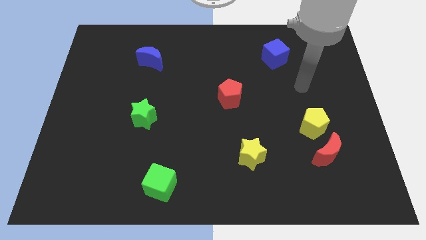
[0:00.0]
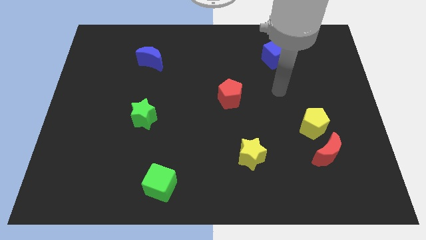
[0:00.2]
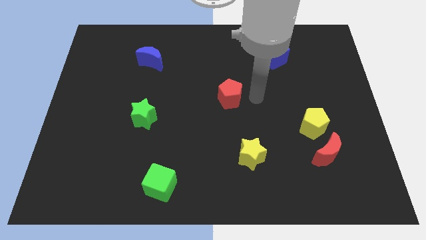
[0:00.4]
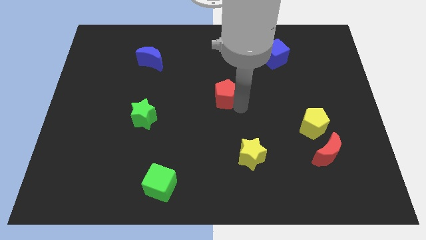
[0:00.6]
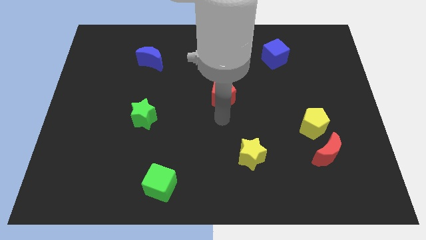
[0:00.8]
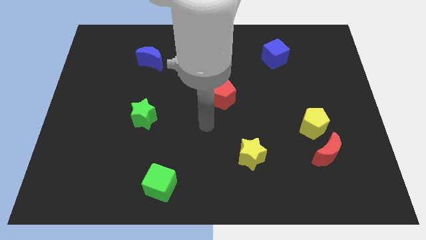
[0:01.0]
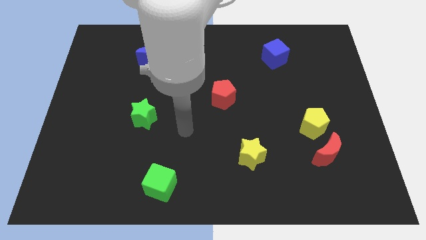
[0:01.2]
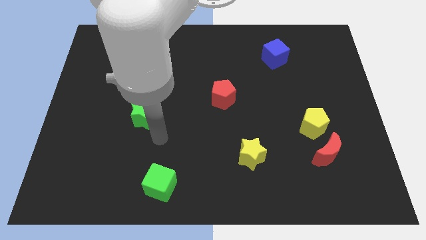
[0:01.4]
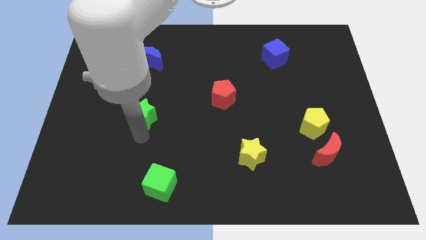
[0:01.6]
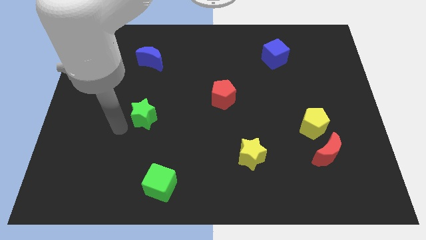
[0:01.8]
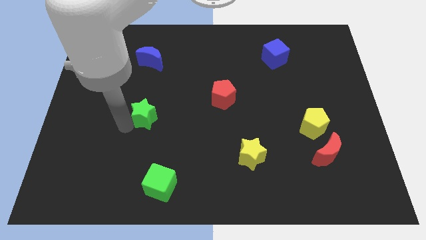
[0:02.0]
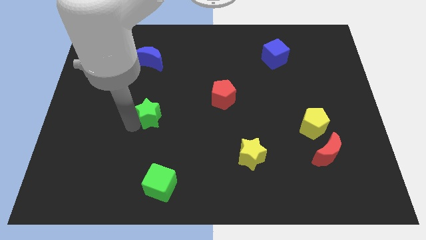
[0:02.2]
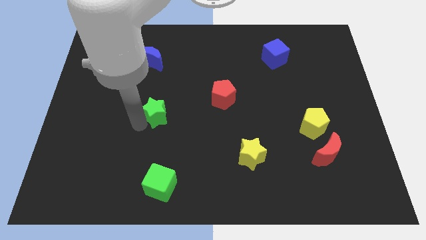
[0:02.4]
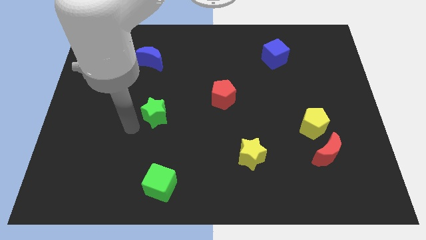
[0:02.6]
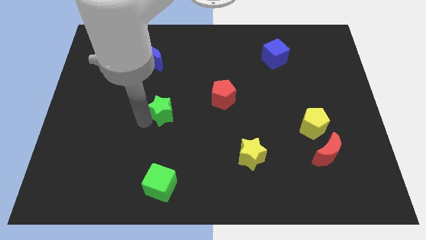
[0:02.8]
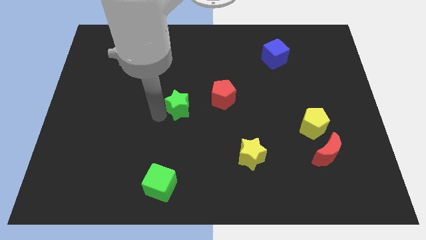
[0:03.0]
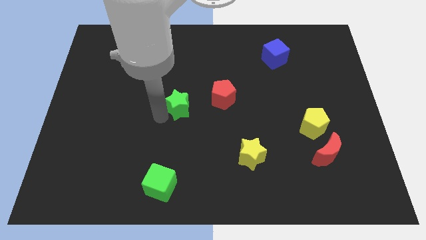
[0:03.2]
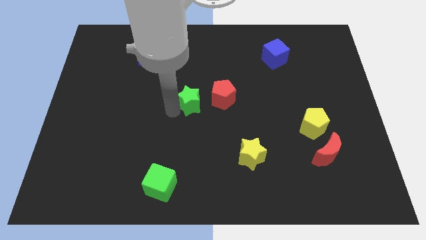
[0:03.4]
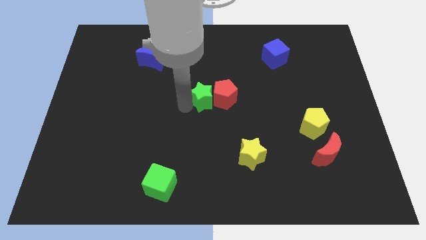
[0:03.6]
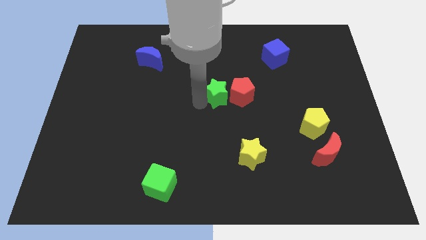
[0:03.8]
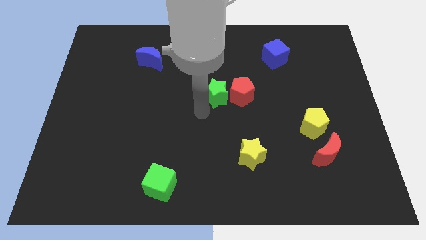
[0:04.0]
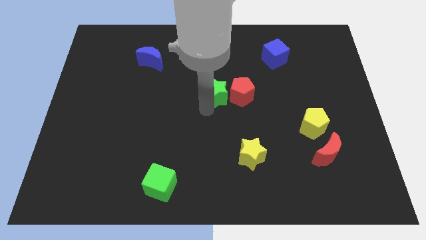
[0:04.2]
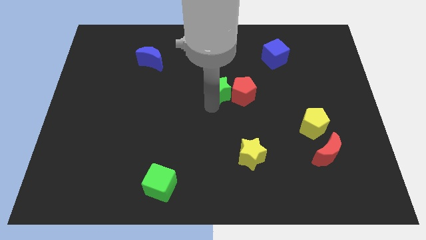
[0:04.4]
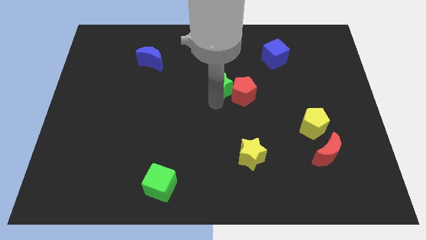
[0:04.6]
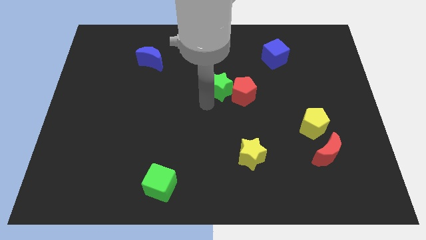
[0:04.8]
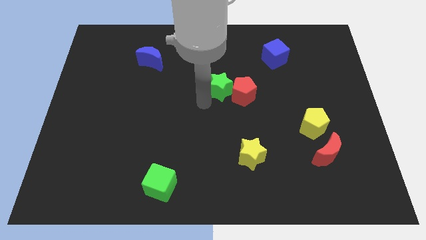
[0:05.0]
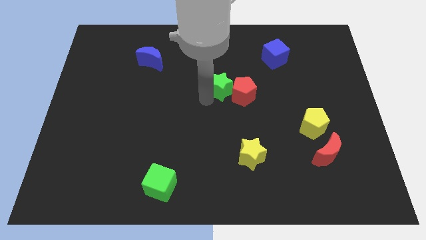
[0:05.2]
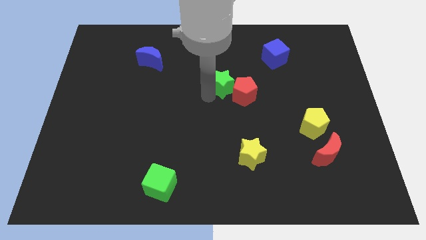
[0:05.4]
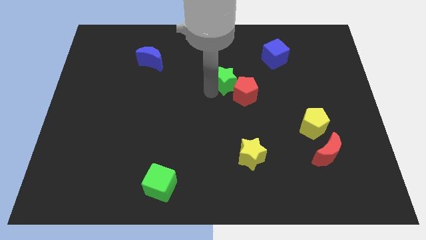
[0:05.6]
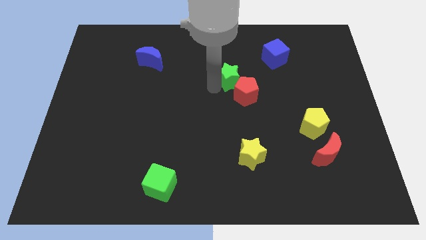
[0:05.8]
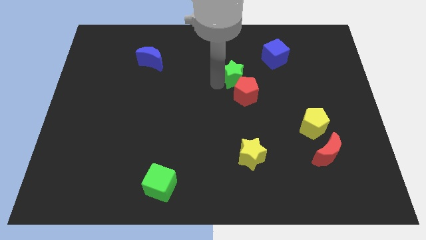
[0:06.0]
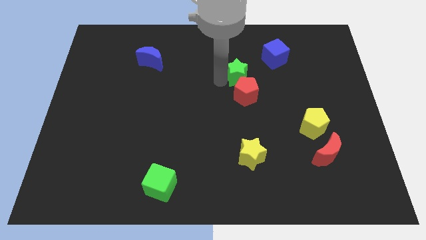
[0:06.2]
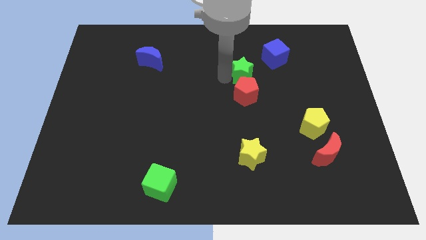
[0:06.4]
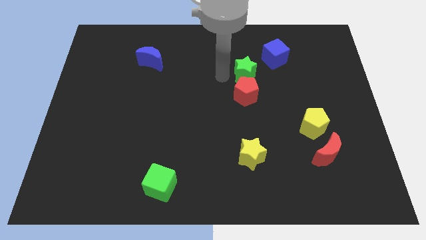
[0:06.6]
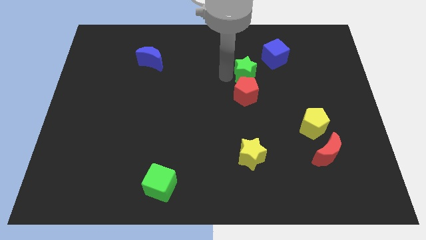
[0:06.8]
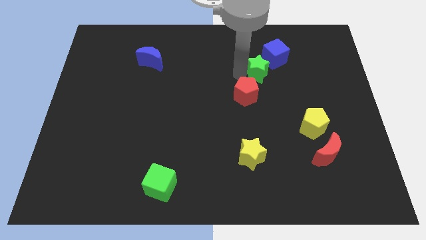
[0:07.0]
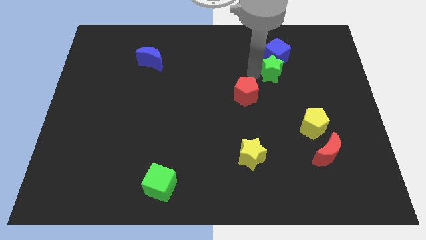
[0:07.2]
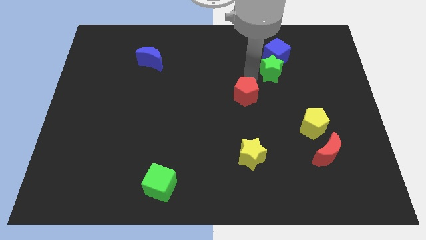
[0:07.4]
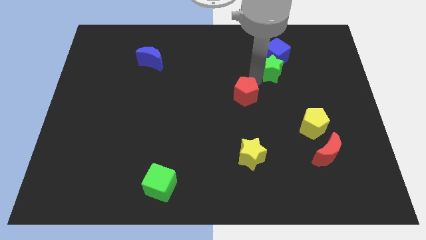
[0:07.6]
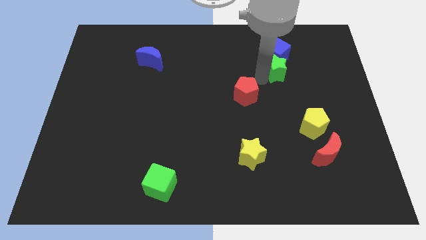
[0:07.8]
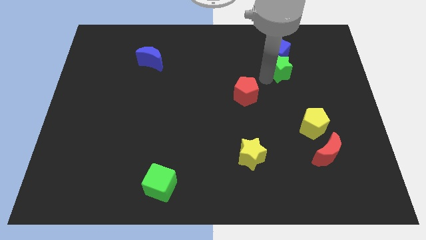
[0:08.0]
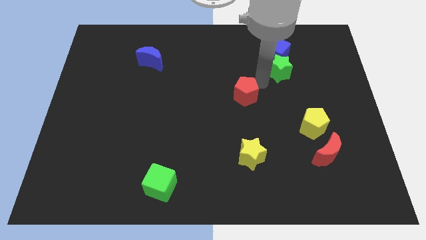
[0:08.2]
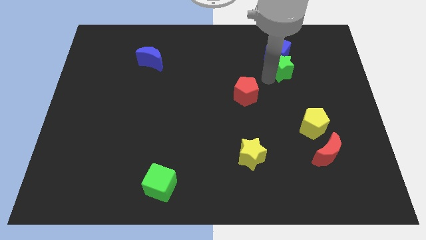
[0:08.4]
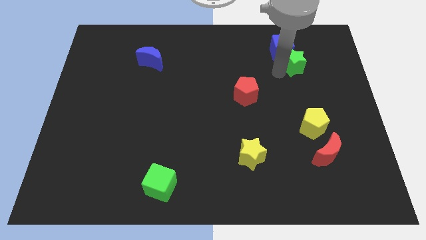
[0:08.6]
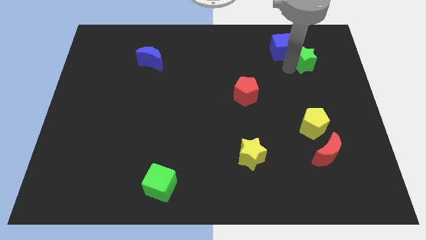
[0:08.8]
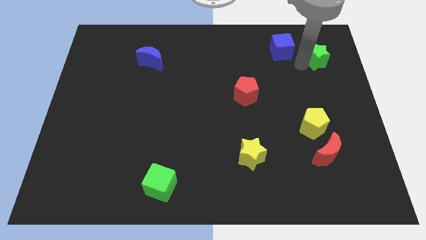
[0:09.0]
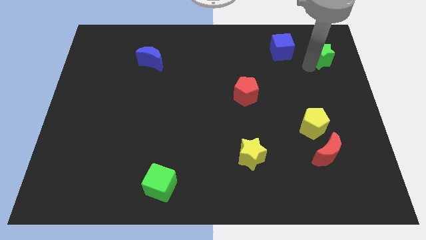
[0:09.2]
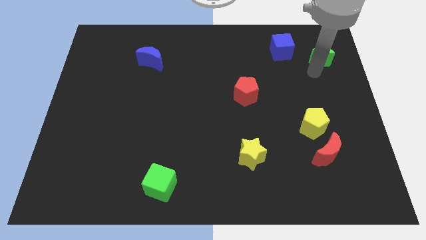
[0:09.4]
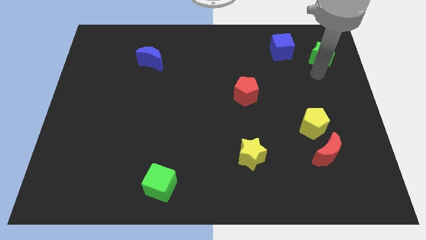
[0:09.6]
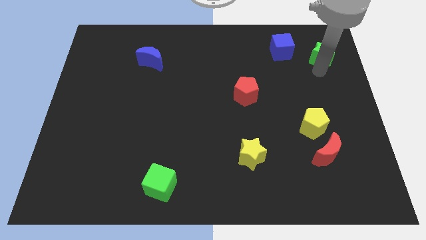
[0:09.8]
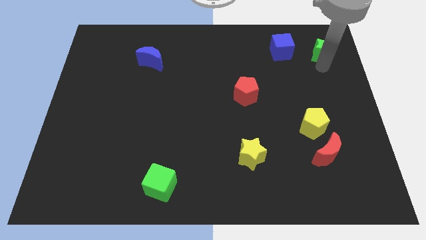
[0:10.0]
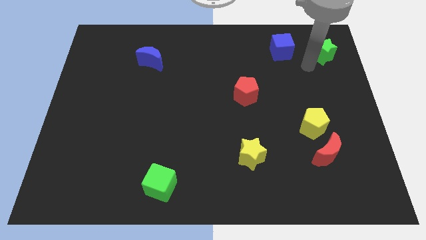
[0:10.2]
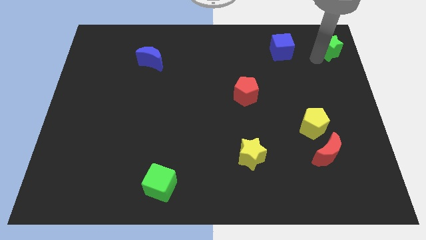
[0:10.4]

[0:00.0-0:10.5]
put the green star to the top right

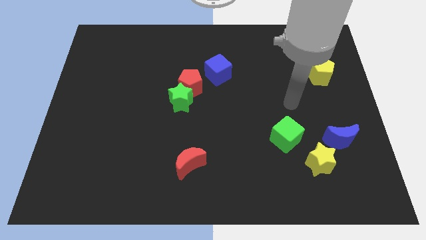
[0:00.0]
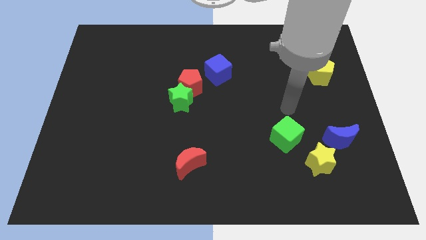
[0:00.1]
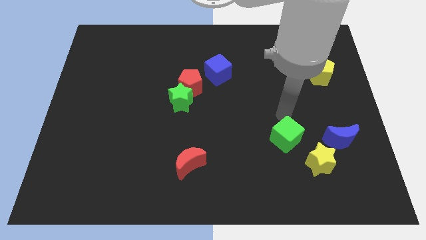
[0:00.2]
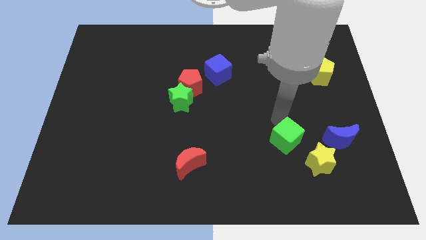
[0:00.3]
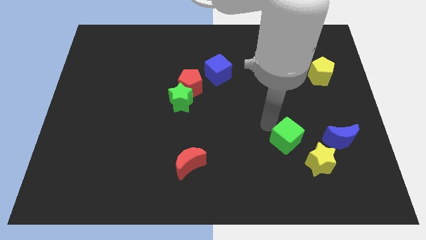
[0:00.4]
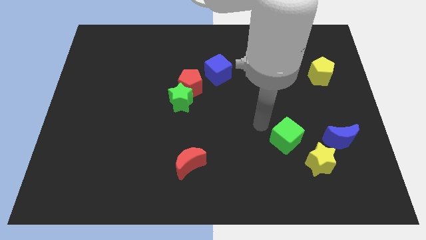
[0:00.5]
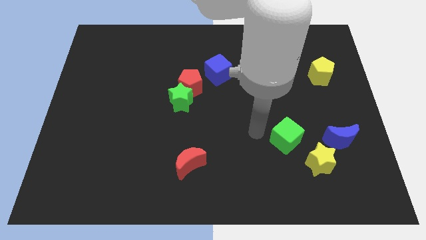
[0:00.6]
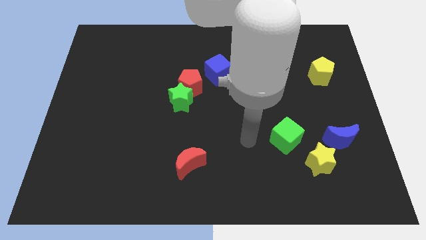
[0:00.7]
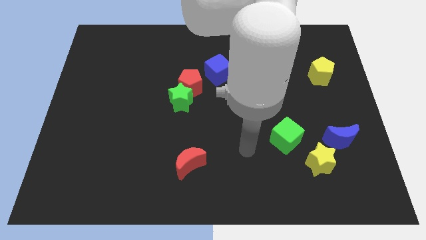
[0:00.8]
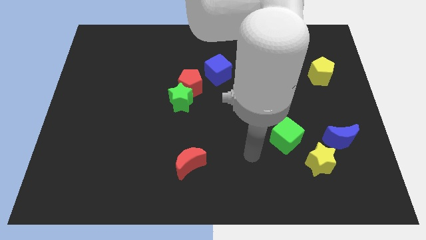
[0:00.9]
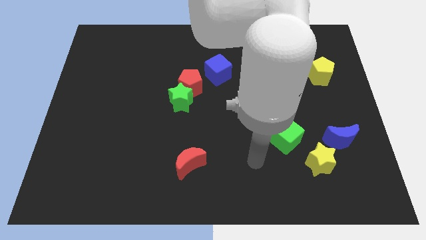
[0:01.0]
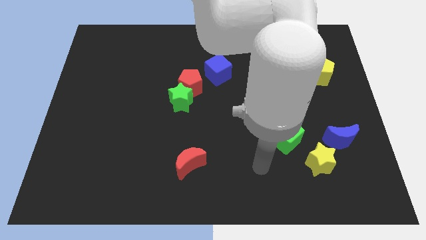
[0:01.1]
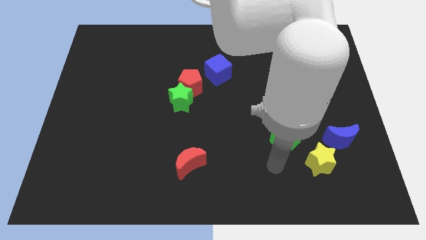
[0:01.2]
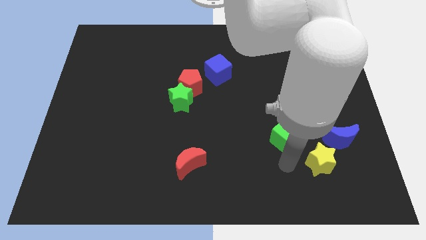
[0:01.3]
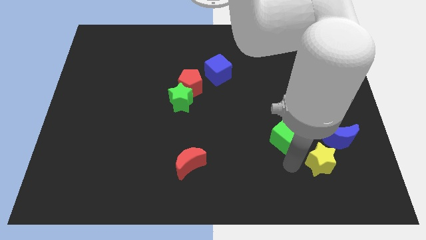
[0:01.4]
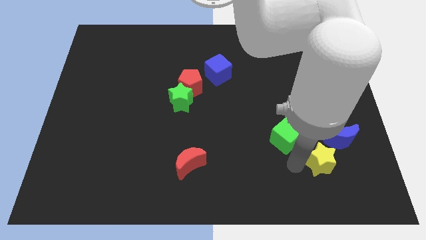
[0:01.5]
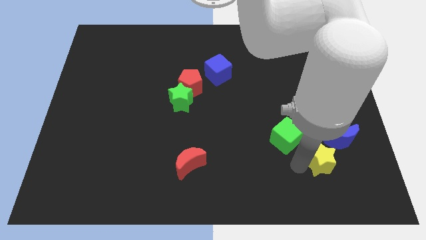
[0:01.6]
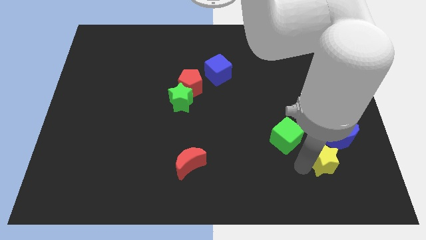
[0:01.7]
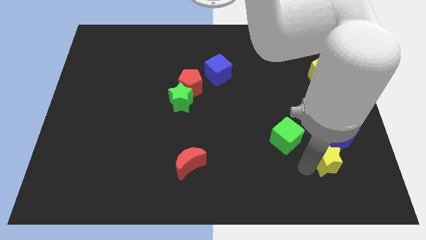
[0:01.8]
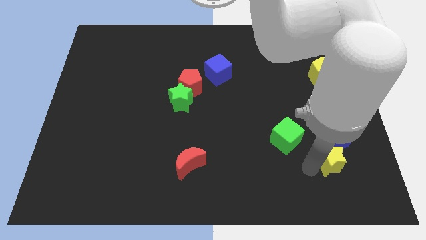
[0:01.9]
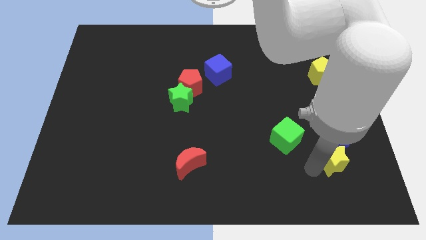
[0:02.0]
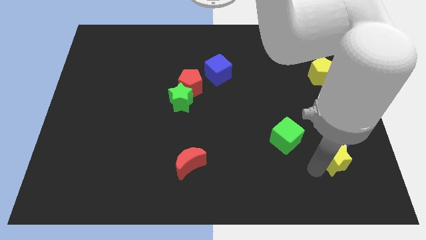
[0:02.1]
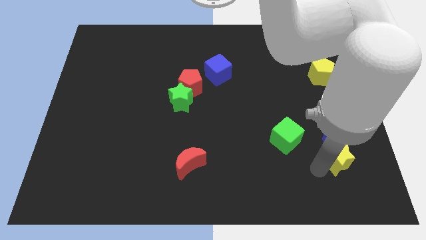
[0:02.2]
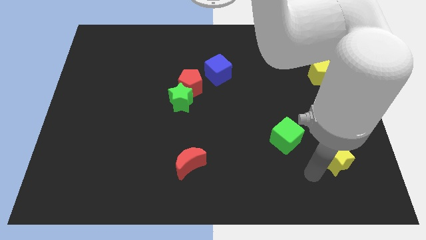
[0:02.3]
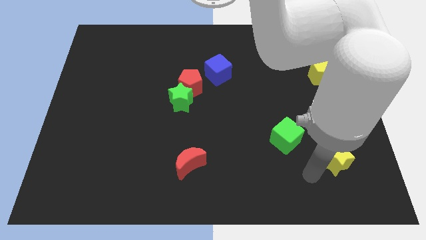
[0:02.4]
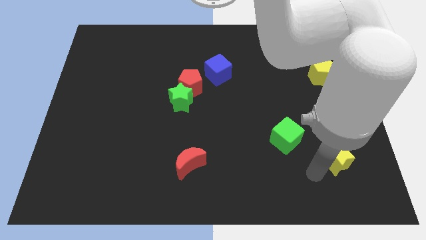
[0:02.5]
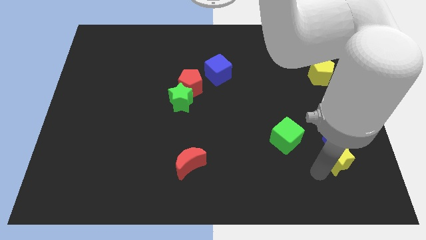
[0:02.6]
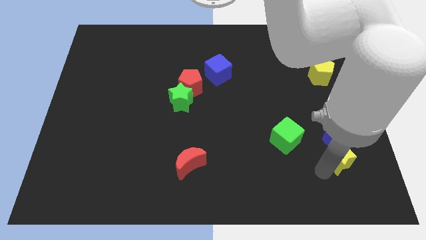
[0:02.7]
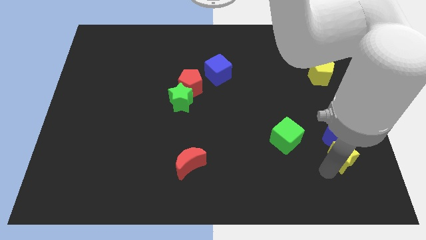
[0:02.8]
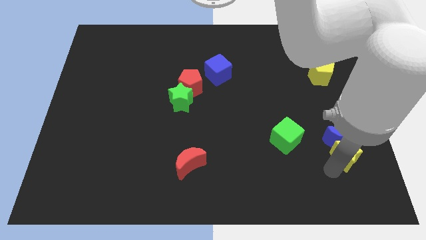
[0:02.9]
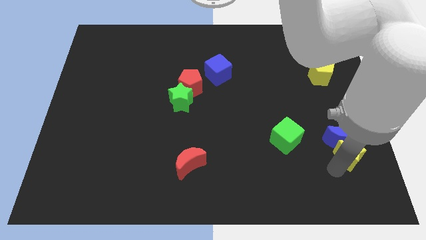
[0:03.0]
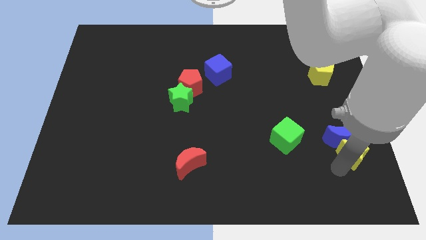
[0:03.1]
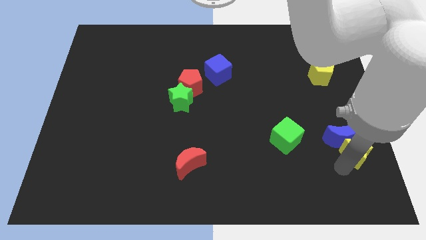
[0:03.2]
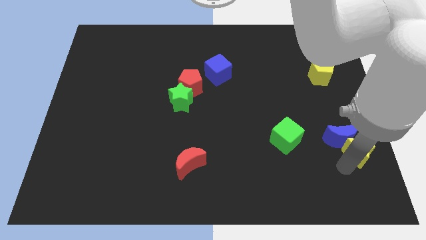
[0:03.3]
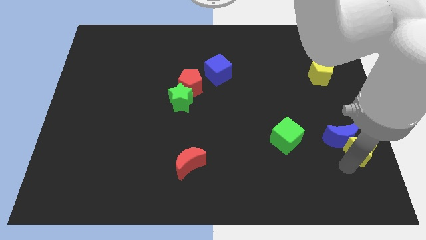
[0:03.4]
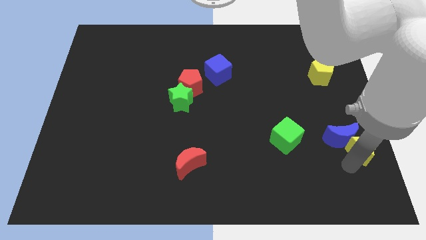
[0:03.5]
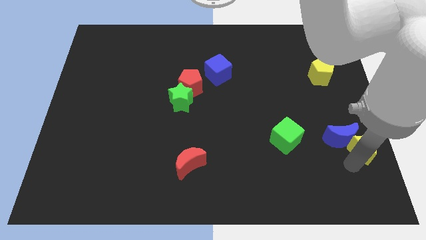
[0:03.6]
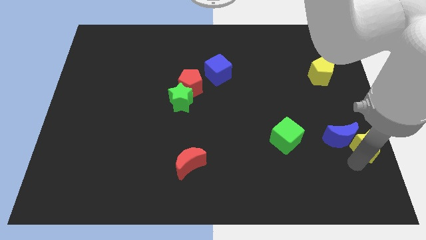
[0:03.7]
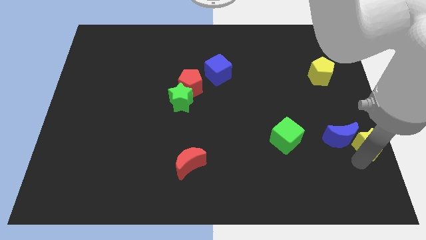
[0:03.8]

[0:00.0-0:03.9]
put the yellow star to the center right
